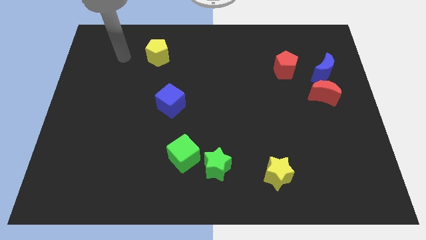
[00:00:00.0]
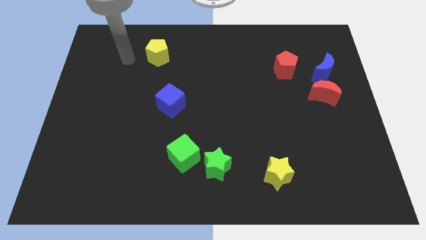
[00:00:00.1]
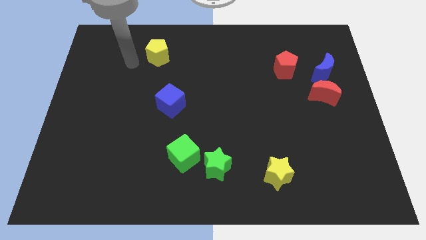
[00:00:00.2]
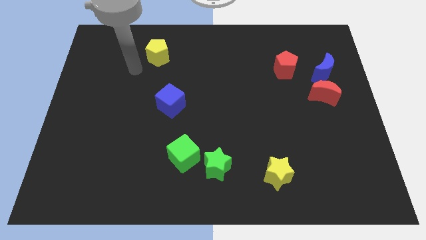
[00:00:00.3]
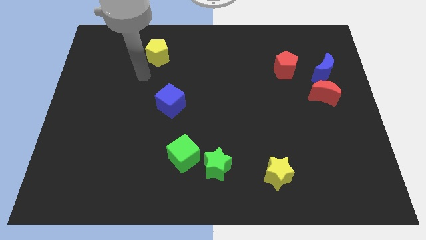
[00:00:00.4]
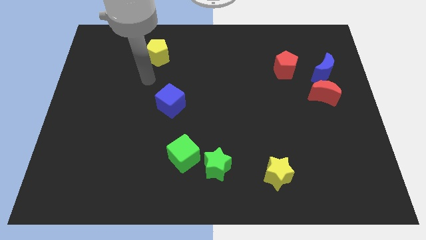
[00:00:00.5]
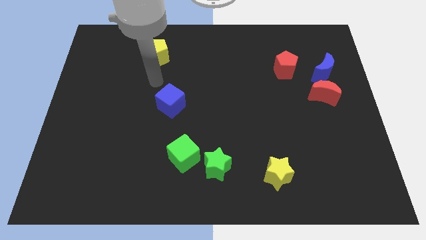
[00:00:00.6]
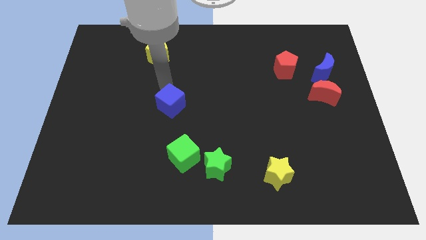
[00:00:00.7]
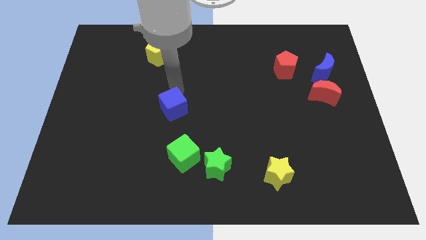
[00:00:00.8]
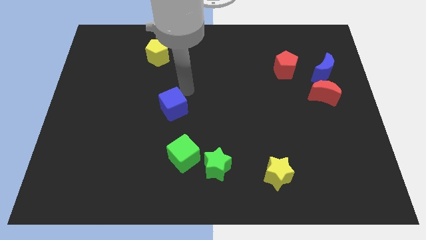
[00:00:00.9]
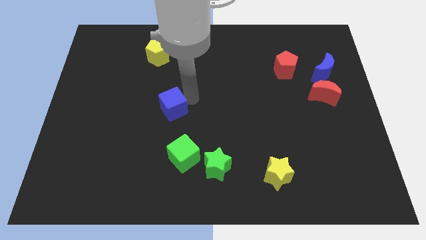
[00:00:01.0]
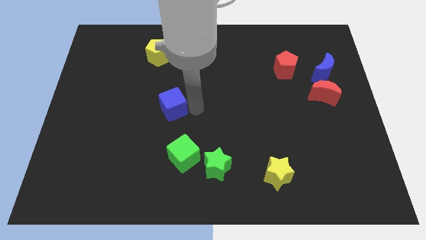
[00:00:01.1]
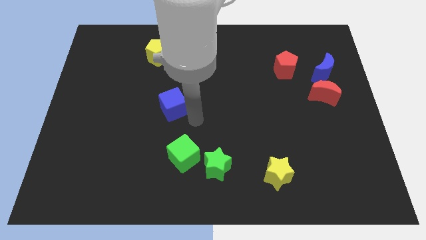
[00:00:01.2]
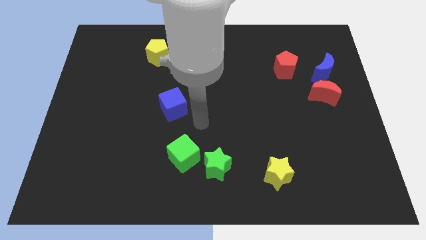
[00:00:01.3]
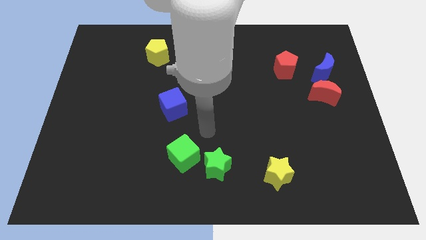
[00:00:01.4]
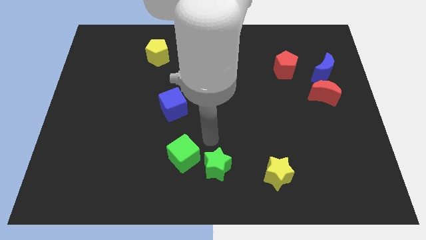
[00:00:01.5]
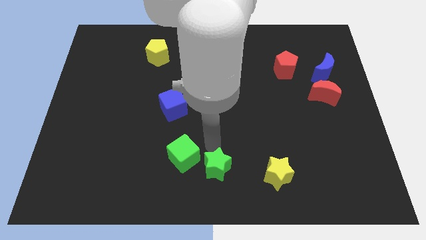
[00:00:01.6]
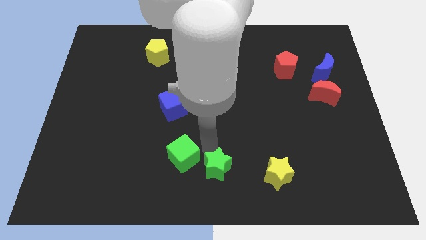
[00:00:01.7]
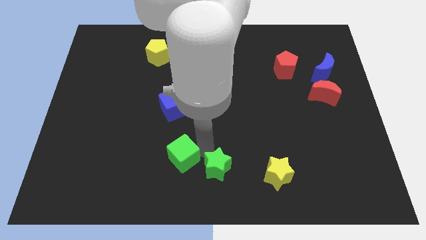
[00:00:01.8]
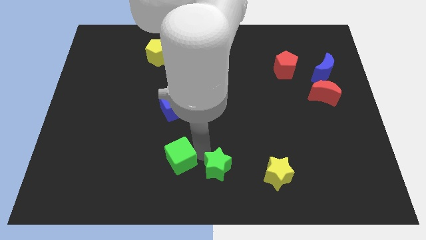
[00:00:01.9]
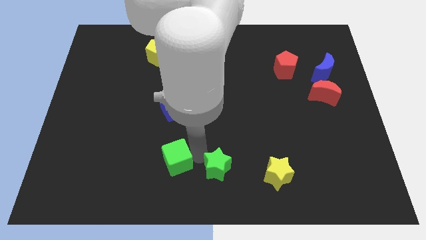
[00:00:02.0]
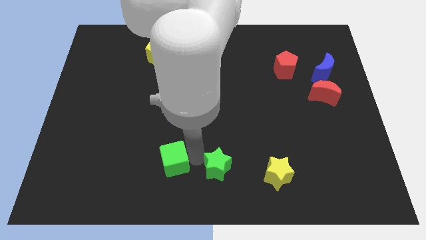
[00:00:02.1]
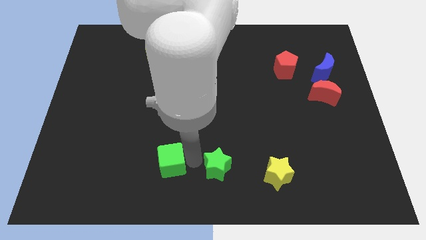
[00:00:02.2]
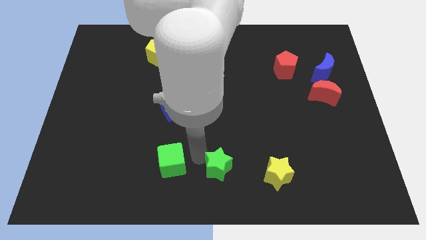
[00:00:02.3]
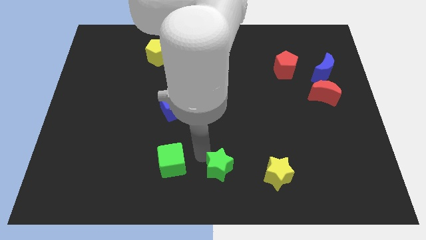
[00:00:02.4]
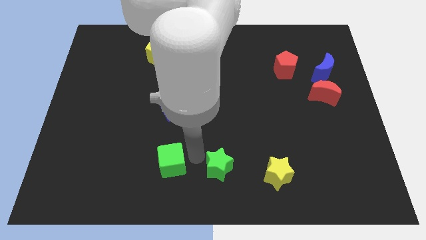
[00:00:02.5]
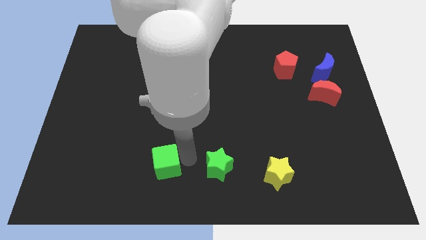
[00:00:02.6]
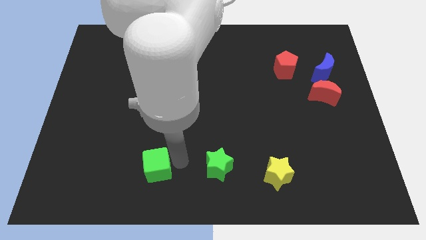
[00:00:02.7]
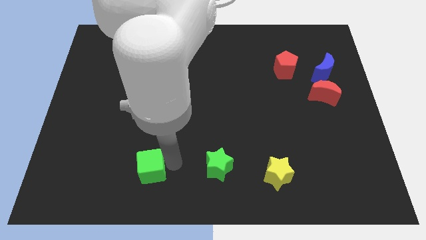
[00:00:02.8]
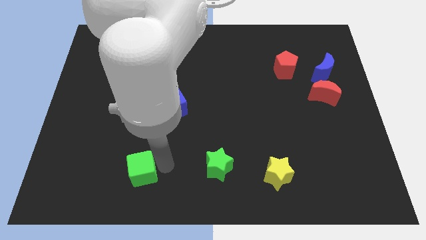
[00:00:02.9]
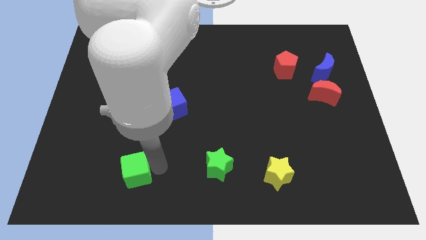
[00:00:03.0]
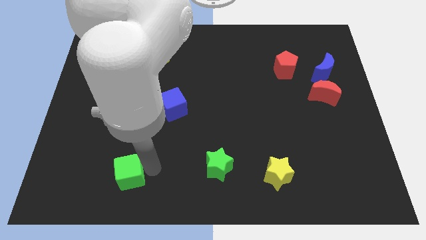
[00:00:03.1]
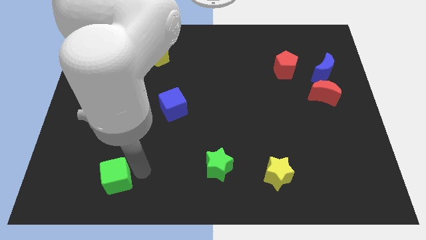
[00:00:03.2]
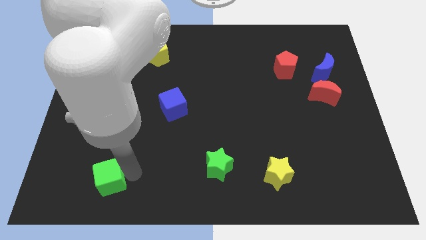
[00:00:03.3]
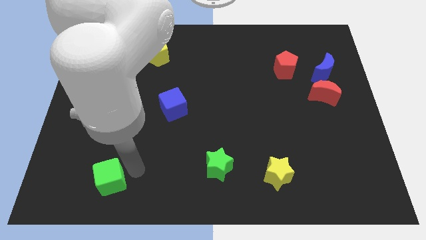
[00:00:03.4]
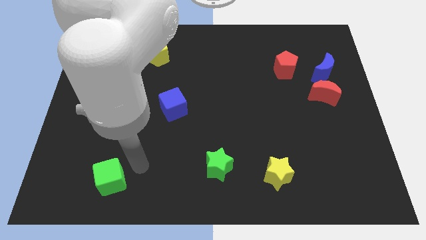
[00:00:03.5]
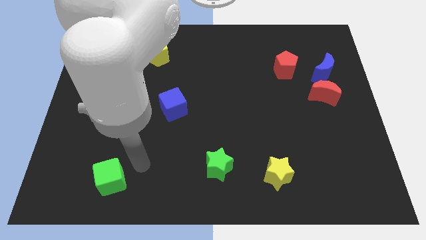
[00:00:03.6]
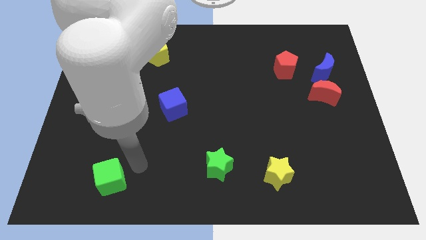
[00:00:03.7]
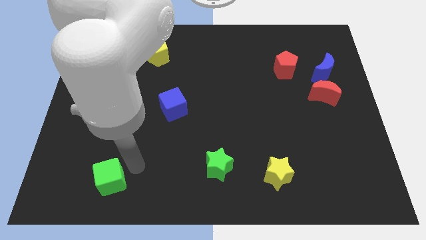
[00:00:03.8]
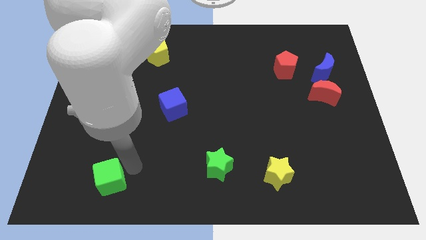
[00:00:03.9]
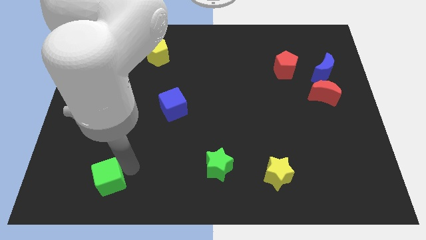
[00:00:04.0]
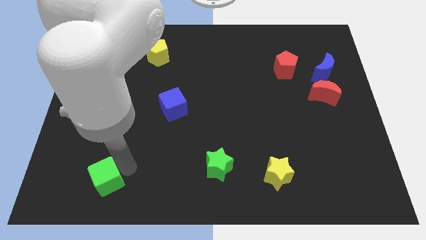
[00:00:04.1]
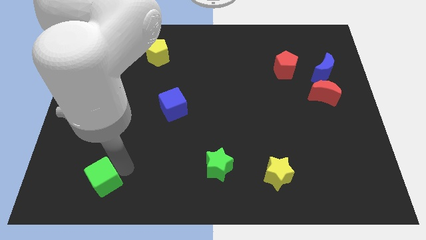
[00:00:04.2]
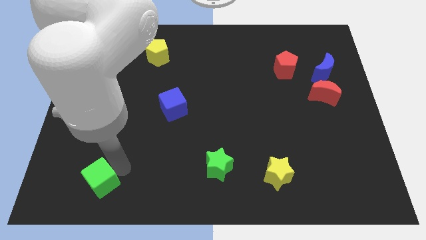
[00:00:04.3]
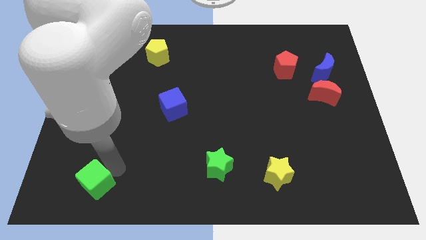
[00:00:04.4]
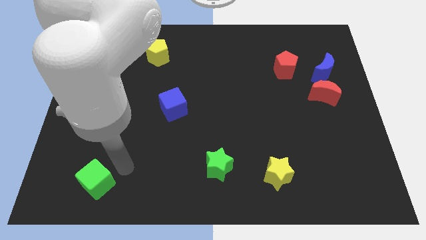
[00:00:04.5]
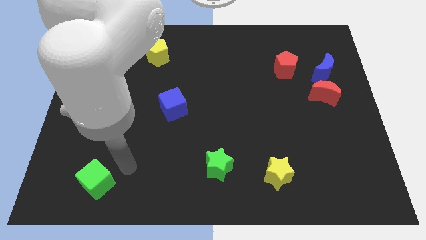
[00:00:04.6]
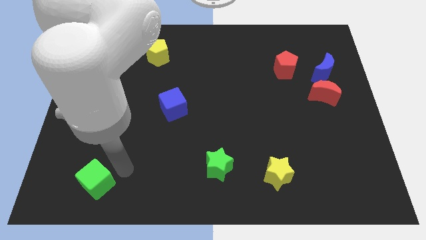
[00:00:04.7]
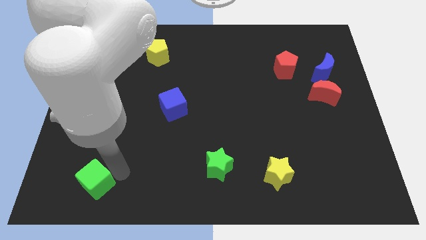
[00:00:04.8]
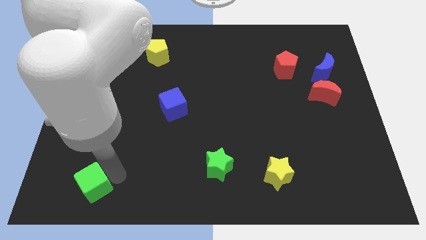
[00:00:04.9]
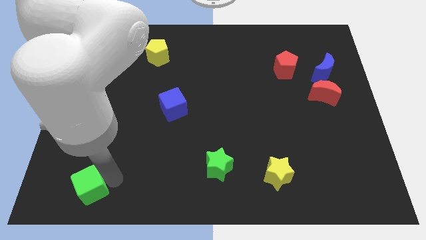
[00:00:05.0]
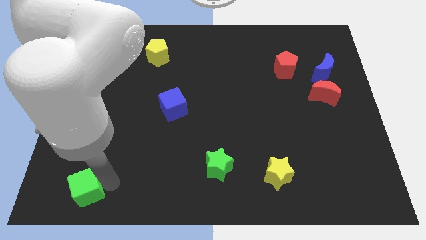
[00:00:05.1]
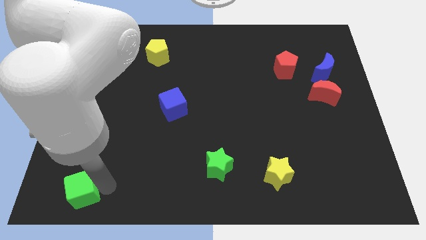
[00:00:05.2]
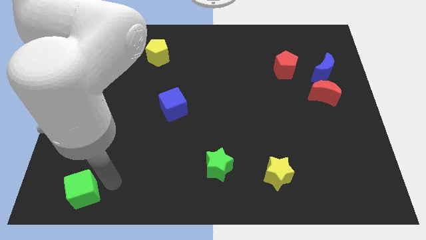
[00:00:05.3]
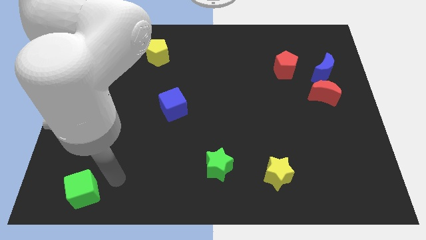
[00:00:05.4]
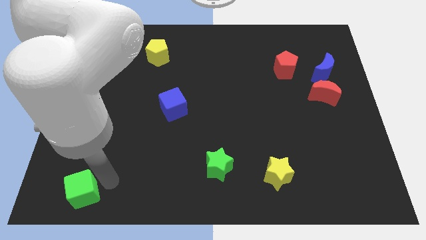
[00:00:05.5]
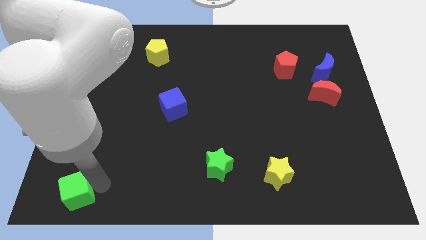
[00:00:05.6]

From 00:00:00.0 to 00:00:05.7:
put the green cube to the bottom left
